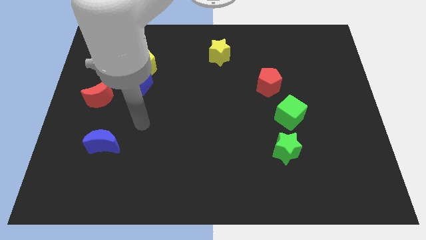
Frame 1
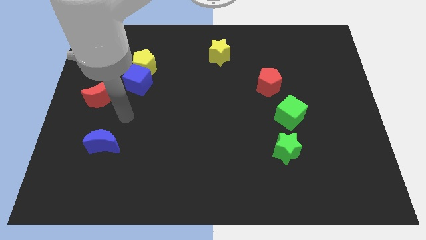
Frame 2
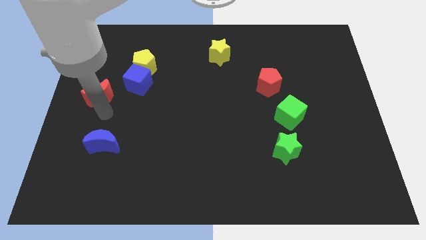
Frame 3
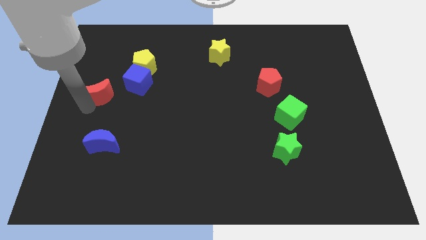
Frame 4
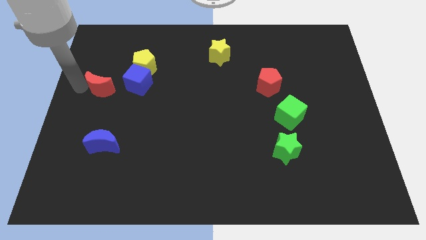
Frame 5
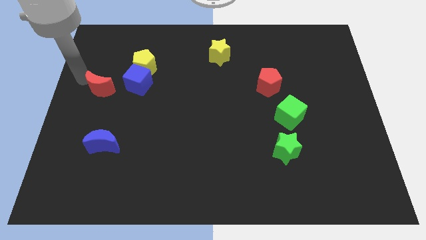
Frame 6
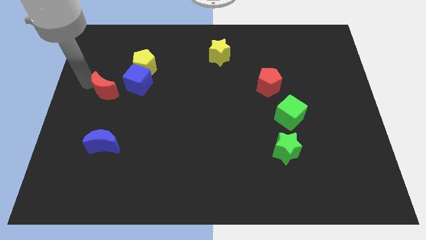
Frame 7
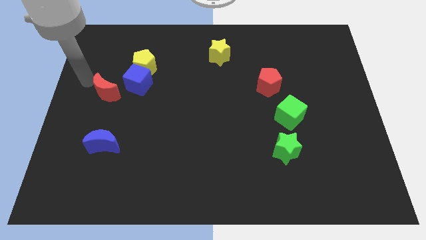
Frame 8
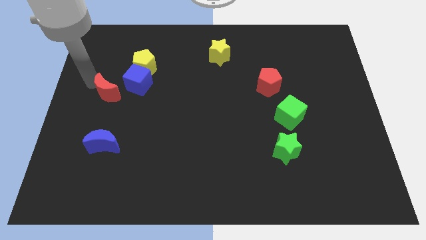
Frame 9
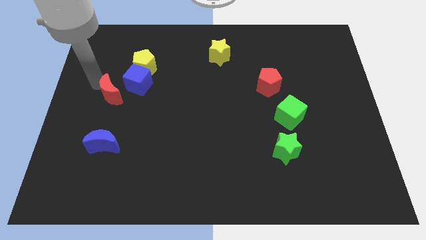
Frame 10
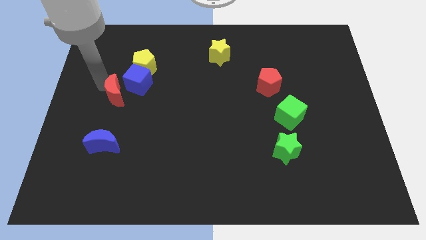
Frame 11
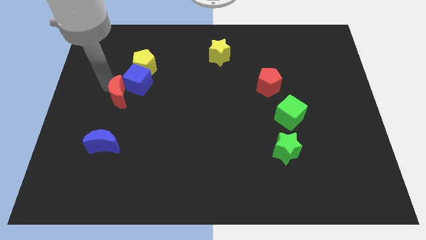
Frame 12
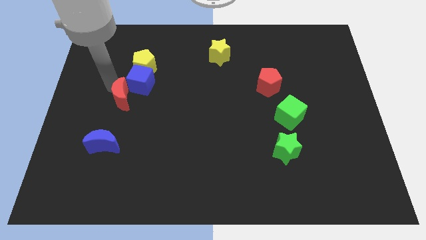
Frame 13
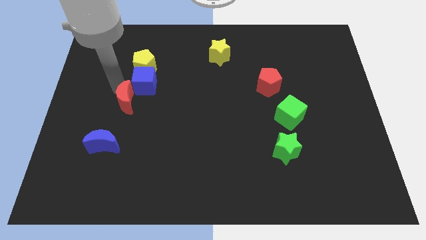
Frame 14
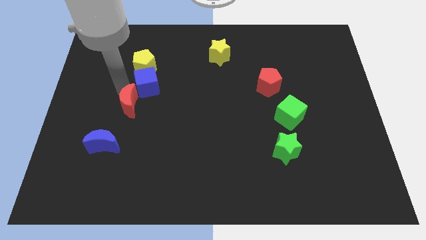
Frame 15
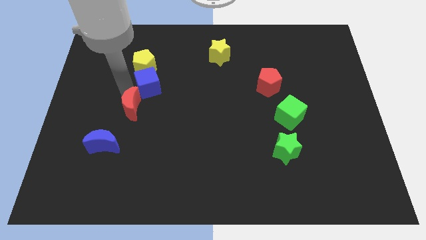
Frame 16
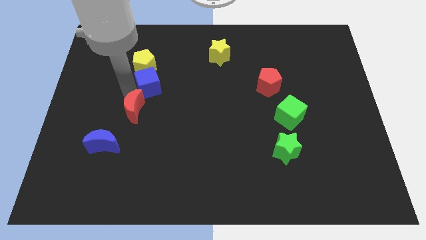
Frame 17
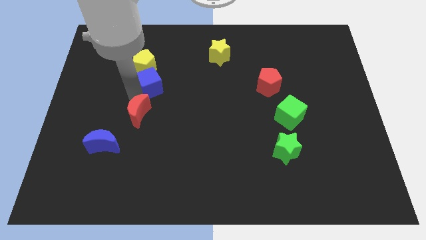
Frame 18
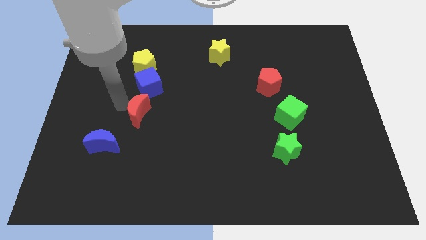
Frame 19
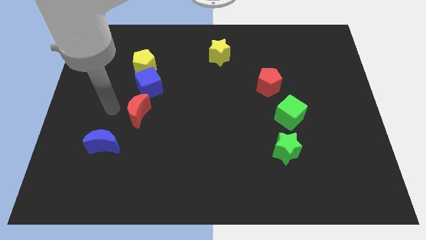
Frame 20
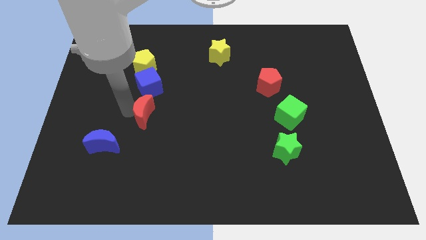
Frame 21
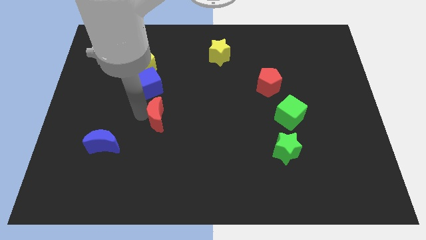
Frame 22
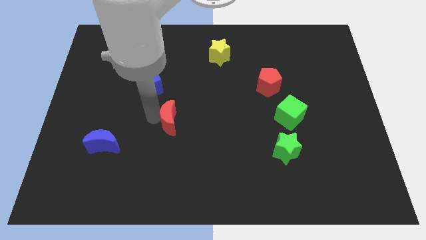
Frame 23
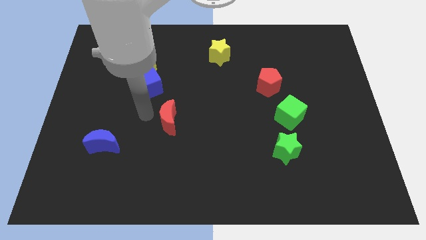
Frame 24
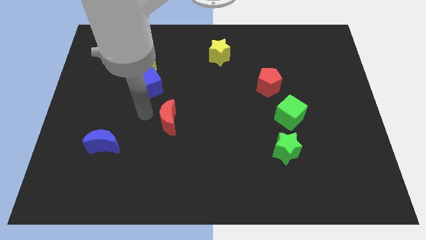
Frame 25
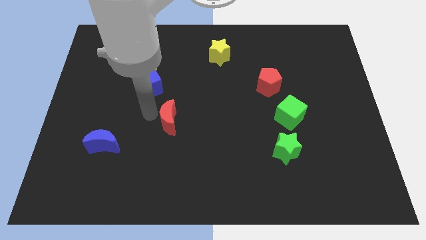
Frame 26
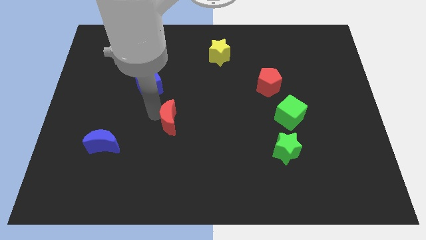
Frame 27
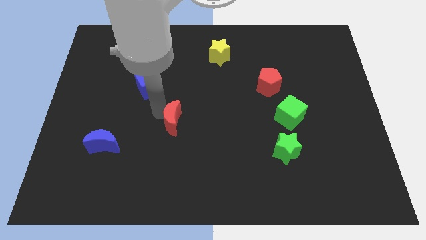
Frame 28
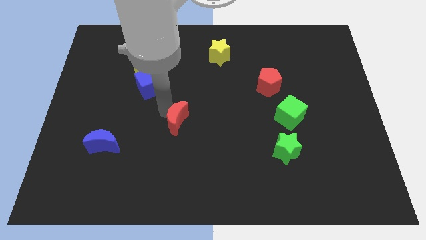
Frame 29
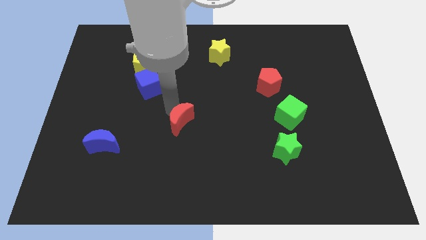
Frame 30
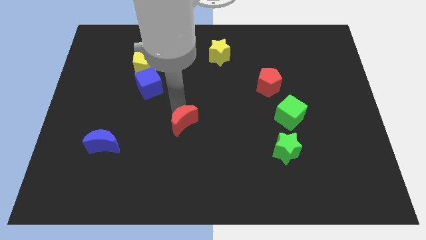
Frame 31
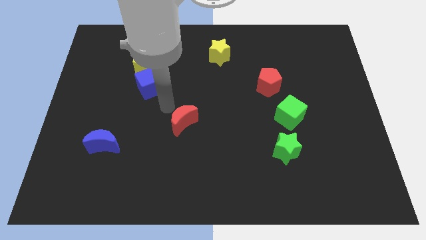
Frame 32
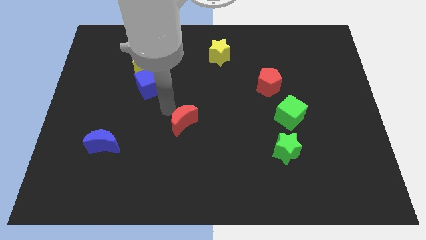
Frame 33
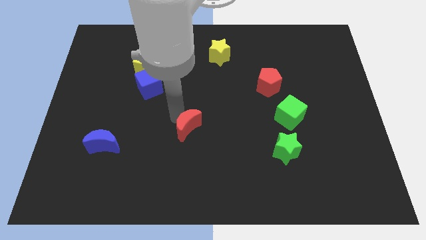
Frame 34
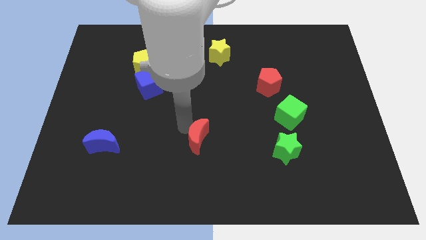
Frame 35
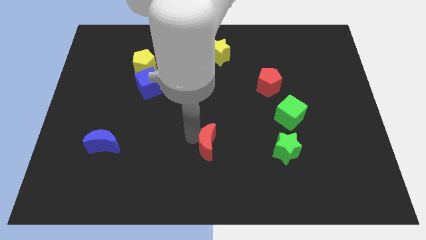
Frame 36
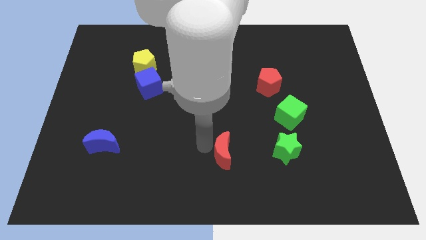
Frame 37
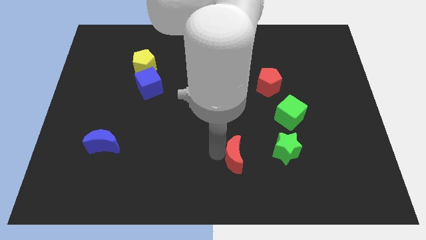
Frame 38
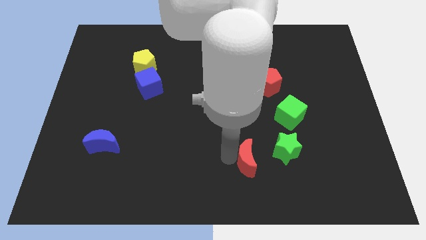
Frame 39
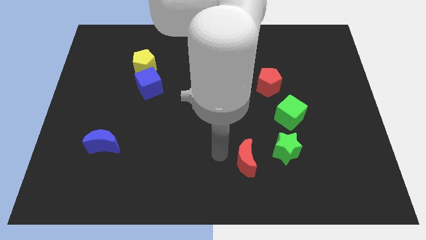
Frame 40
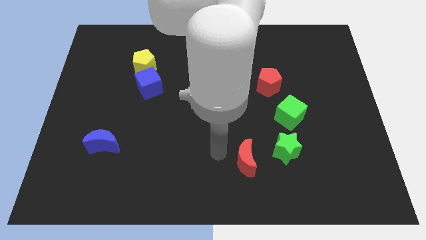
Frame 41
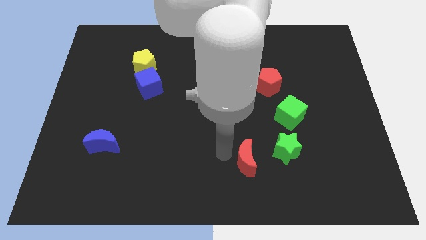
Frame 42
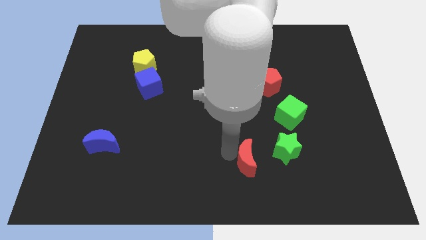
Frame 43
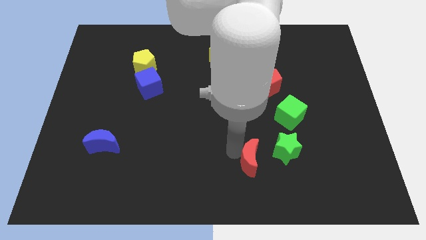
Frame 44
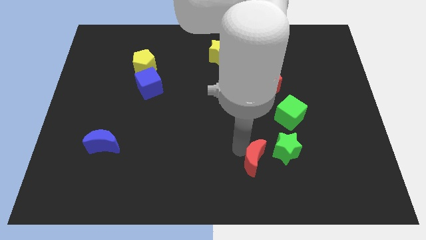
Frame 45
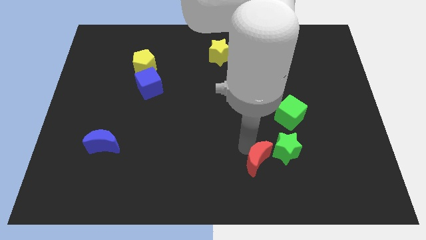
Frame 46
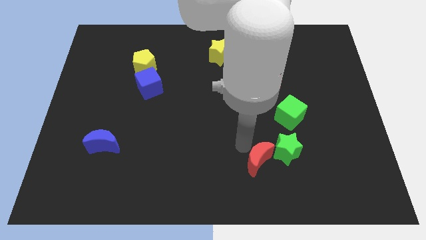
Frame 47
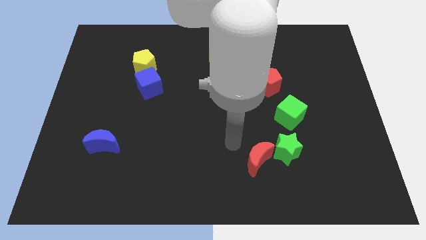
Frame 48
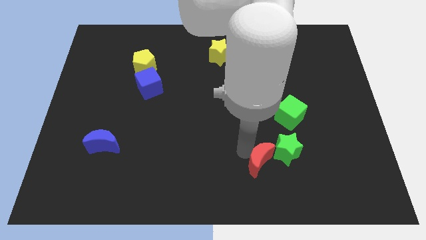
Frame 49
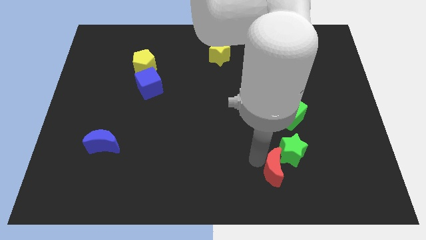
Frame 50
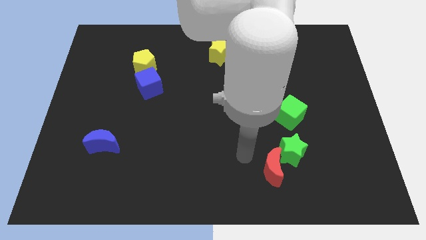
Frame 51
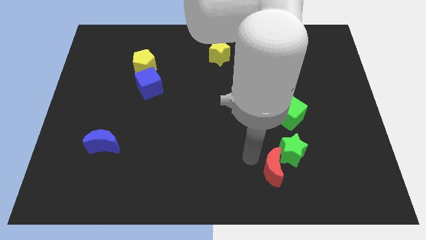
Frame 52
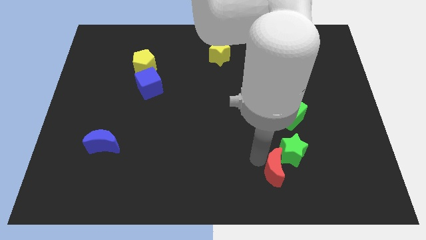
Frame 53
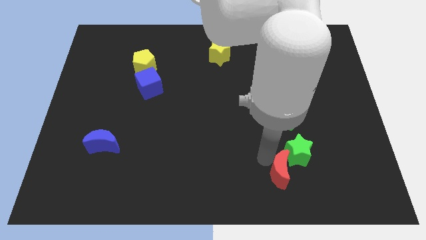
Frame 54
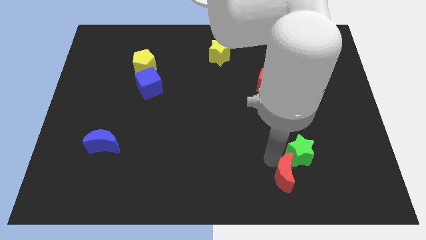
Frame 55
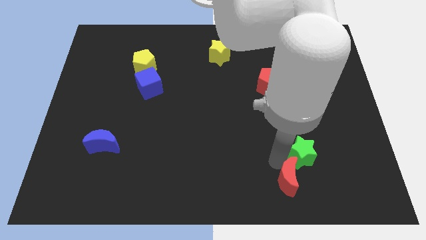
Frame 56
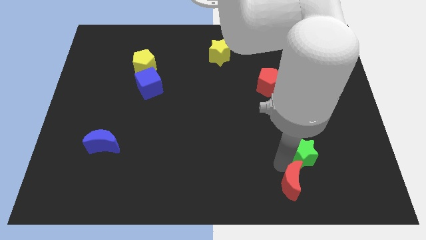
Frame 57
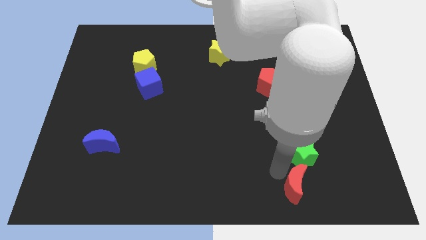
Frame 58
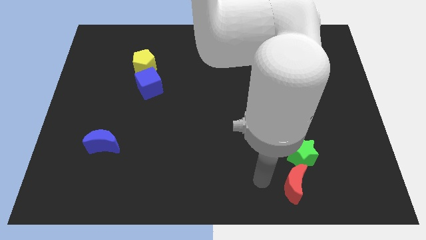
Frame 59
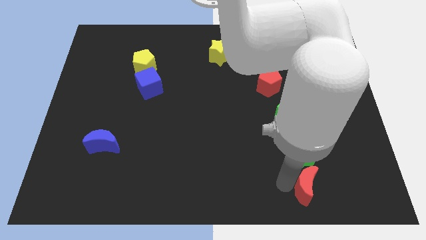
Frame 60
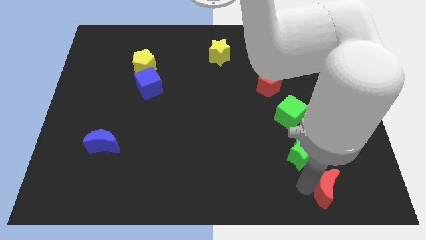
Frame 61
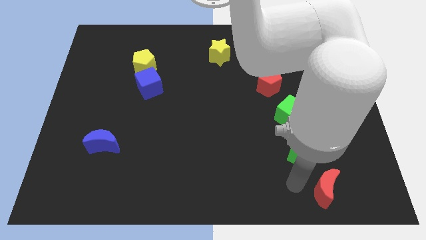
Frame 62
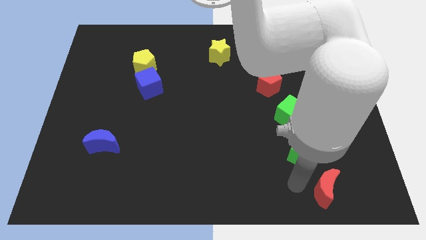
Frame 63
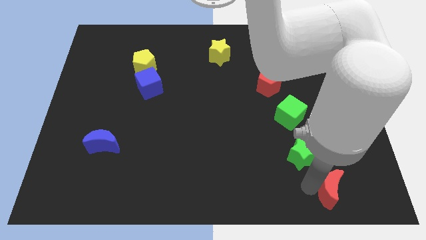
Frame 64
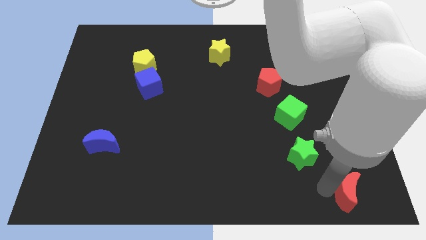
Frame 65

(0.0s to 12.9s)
put the red moon to the bottom right
